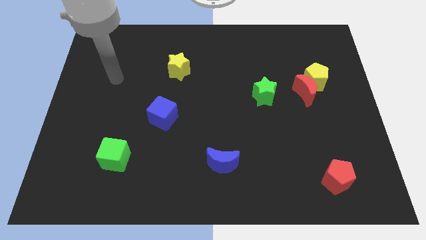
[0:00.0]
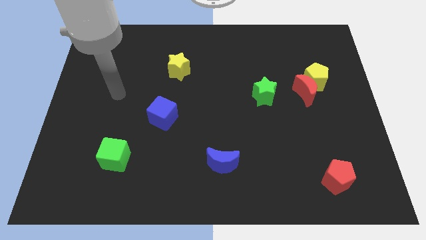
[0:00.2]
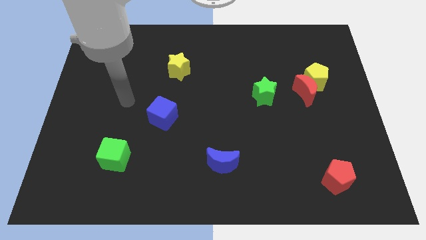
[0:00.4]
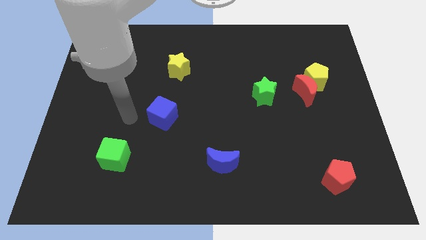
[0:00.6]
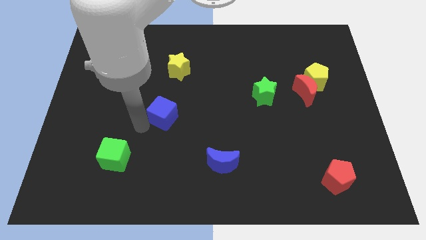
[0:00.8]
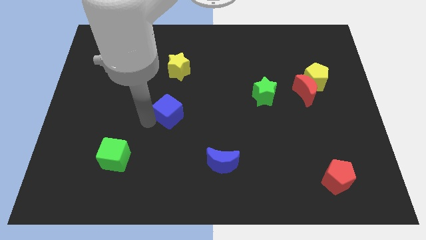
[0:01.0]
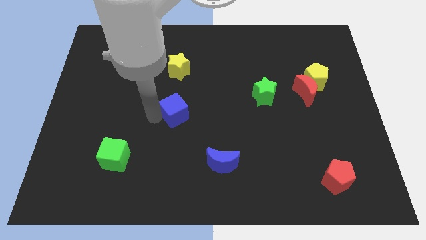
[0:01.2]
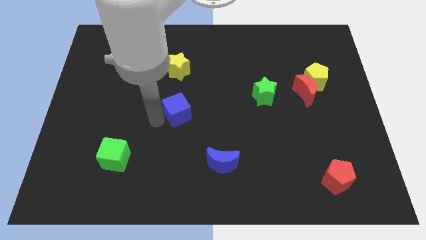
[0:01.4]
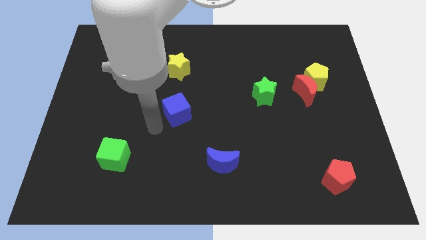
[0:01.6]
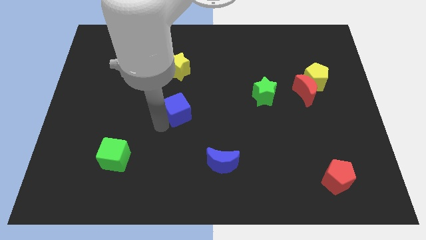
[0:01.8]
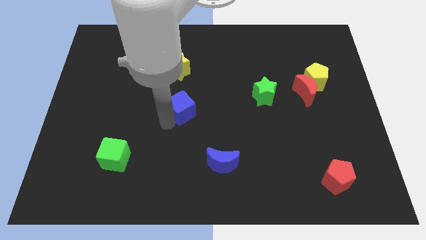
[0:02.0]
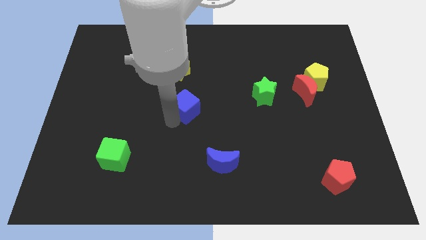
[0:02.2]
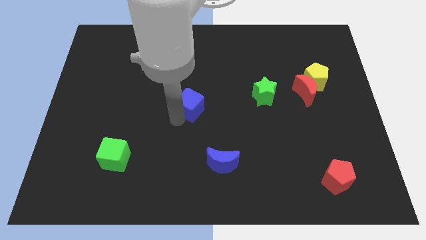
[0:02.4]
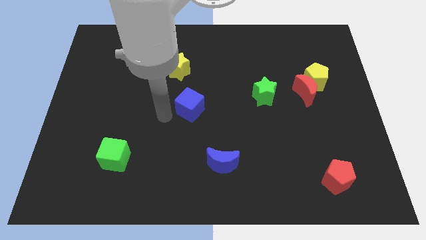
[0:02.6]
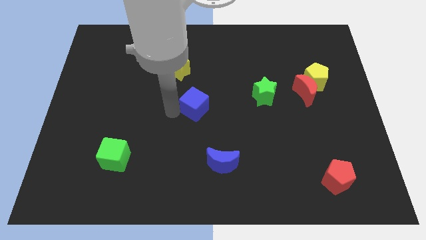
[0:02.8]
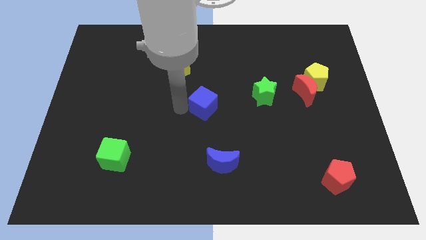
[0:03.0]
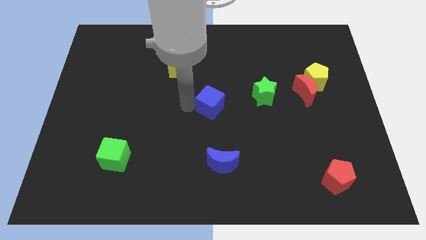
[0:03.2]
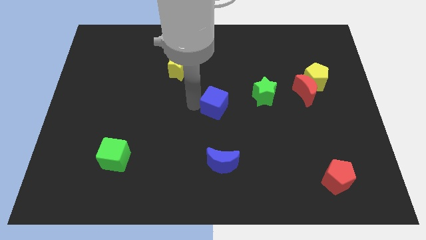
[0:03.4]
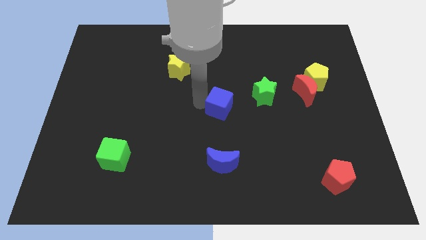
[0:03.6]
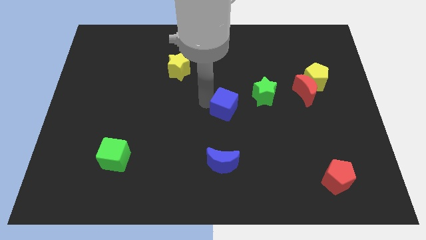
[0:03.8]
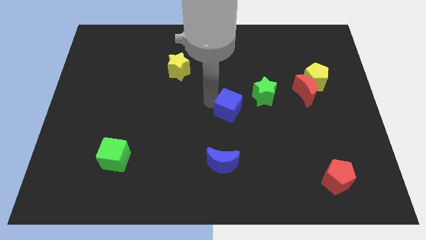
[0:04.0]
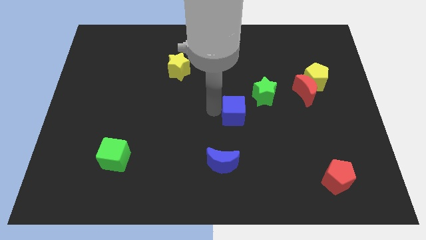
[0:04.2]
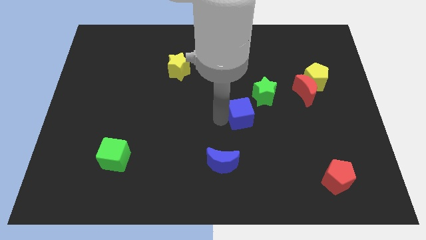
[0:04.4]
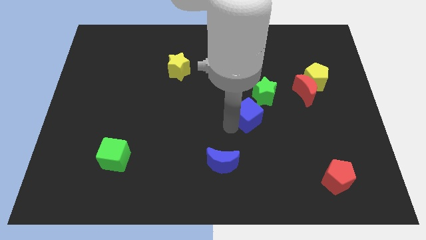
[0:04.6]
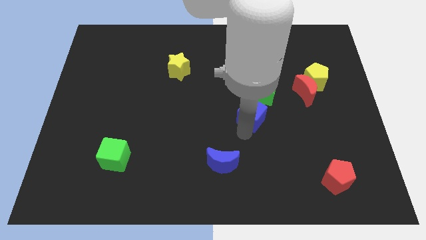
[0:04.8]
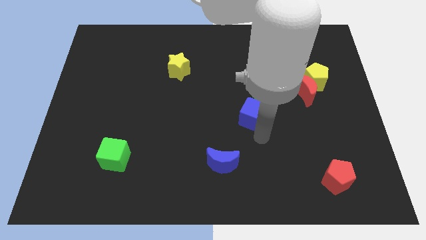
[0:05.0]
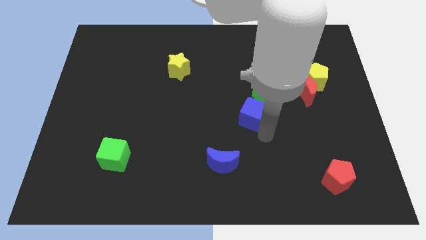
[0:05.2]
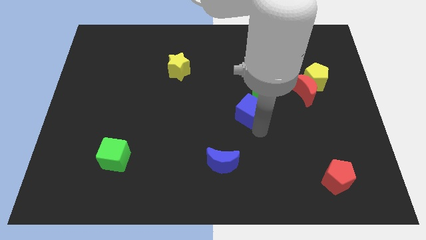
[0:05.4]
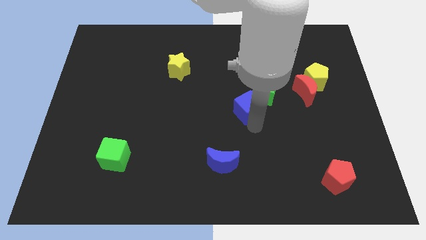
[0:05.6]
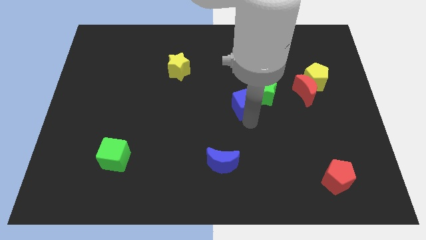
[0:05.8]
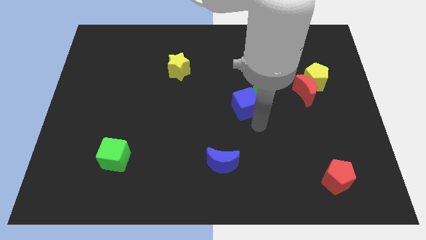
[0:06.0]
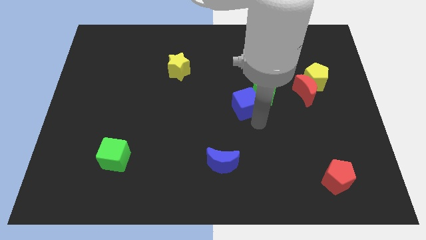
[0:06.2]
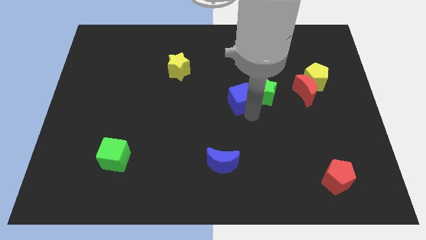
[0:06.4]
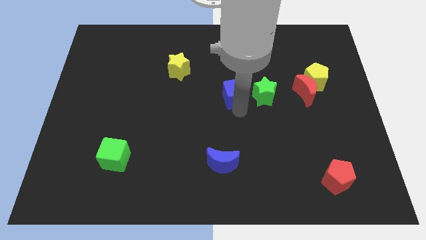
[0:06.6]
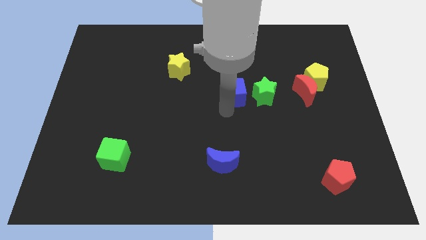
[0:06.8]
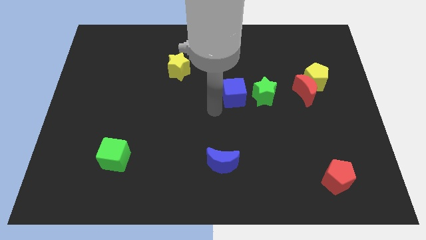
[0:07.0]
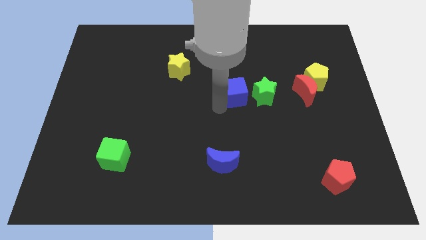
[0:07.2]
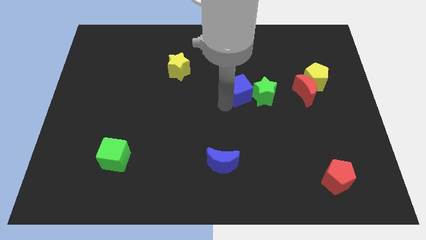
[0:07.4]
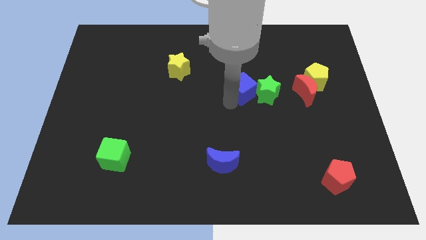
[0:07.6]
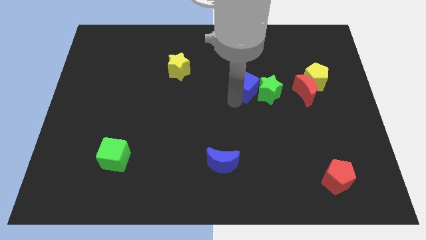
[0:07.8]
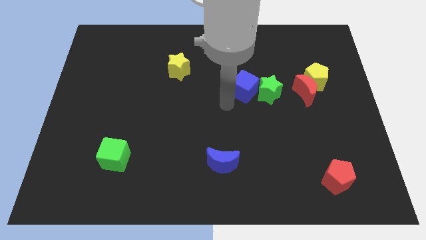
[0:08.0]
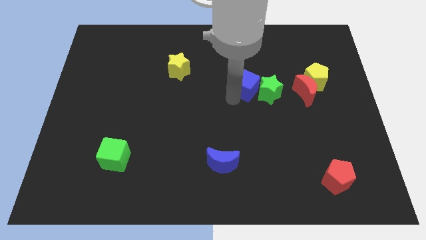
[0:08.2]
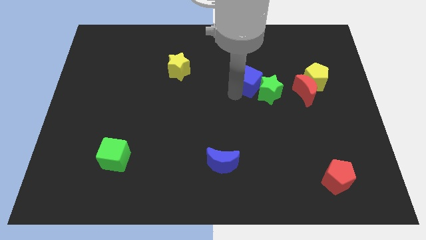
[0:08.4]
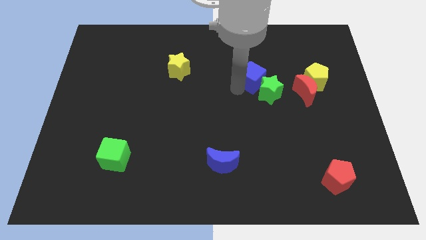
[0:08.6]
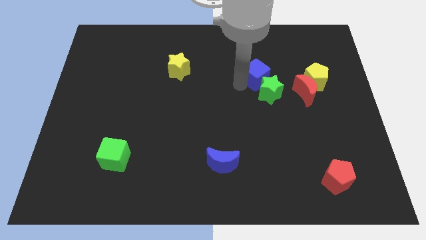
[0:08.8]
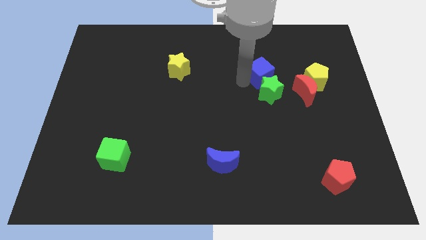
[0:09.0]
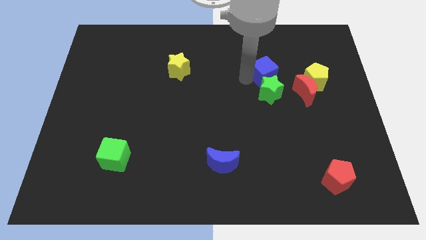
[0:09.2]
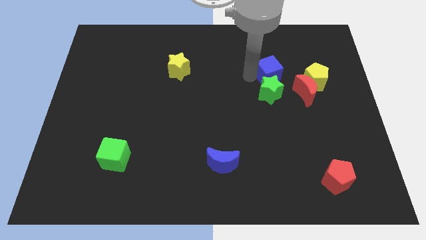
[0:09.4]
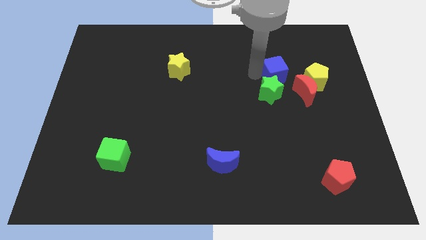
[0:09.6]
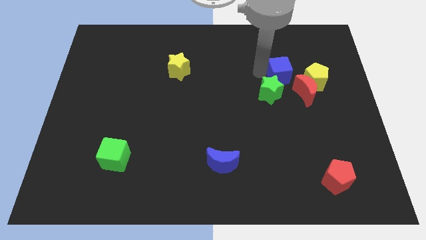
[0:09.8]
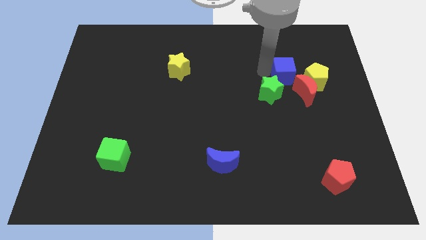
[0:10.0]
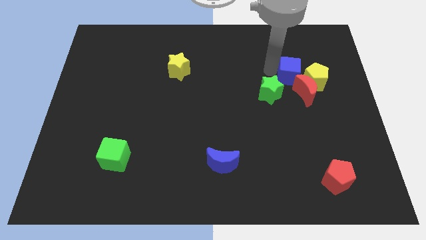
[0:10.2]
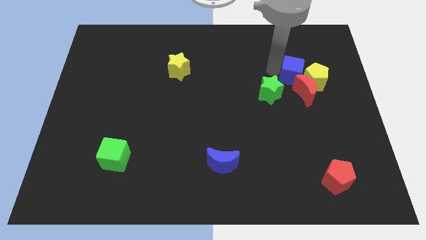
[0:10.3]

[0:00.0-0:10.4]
move the blue cube close to the yellow pentagon

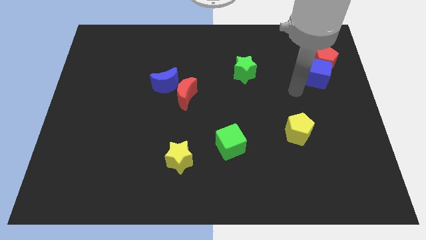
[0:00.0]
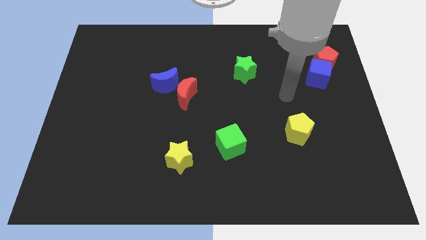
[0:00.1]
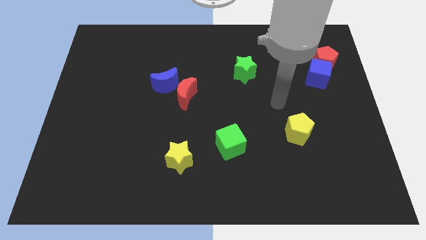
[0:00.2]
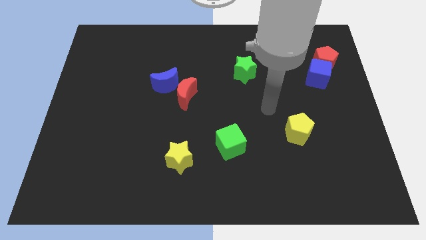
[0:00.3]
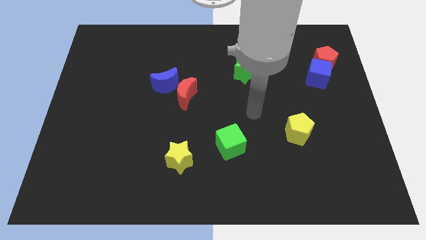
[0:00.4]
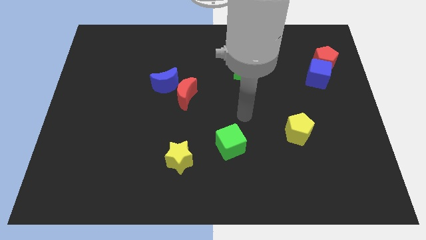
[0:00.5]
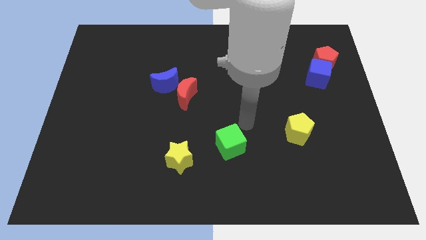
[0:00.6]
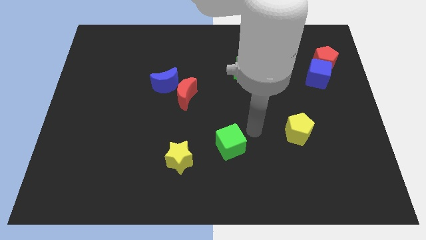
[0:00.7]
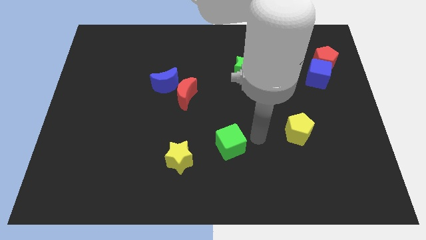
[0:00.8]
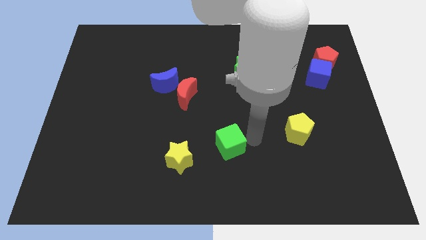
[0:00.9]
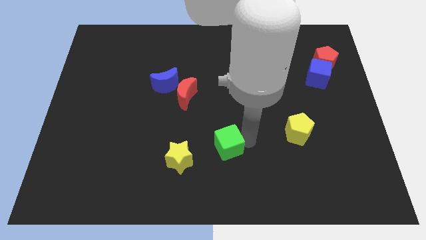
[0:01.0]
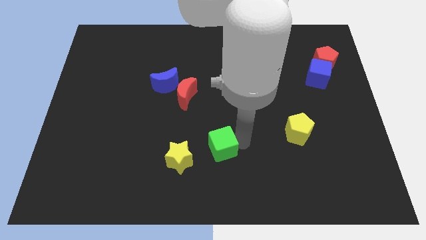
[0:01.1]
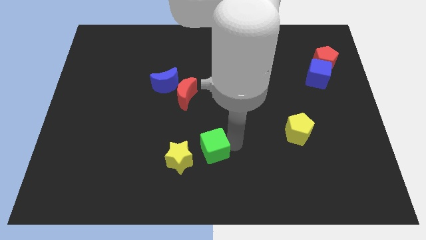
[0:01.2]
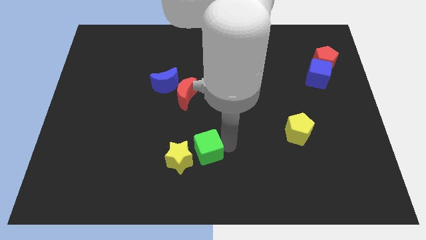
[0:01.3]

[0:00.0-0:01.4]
put the green cube to the yellow star

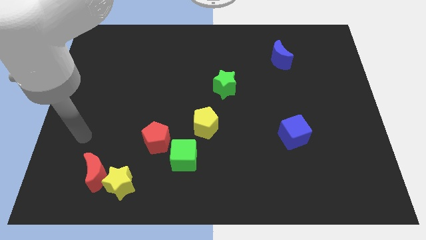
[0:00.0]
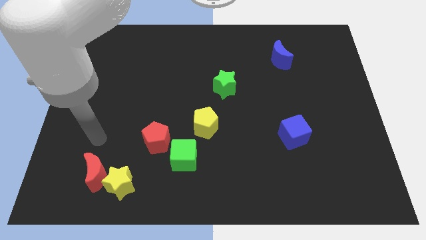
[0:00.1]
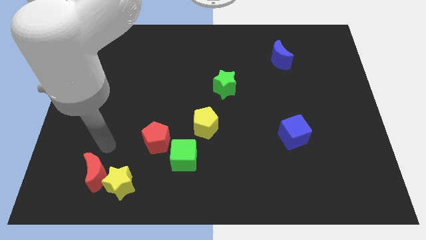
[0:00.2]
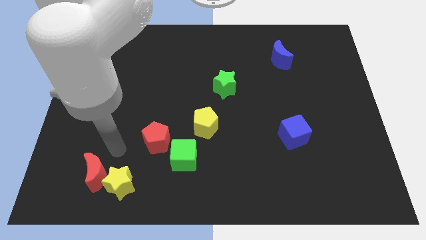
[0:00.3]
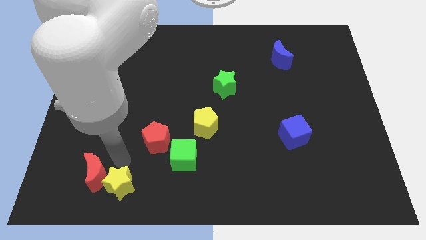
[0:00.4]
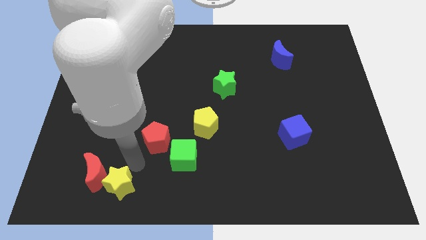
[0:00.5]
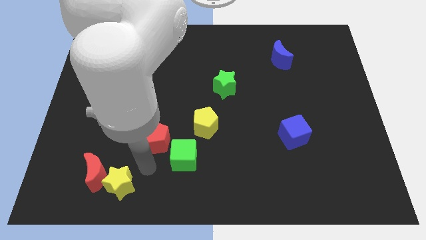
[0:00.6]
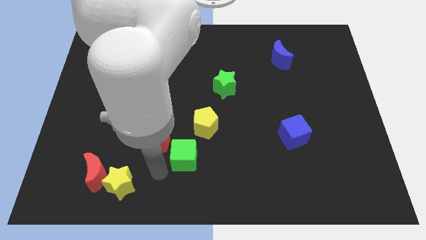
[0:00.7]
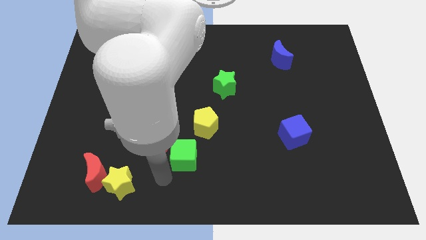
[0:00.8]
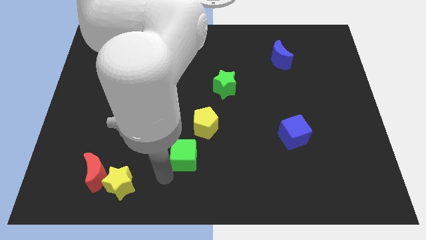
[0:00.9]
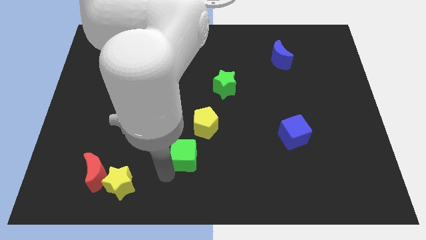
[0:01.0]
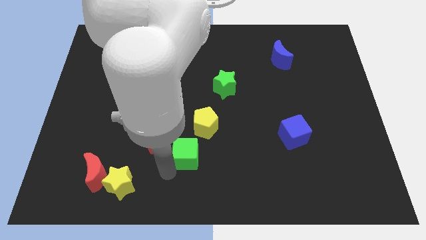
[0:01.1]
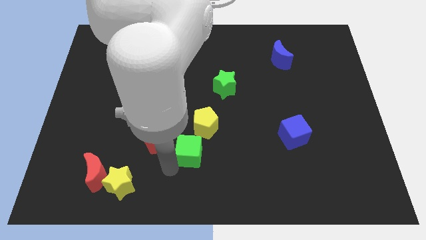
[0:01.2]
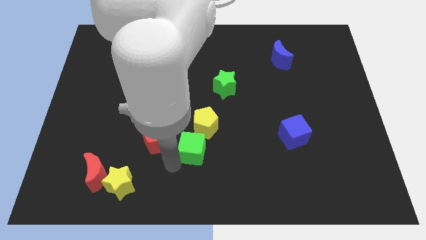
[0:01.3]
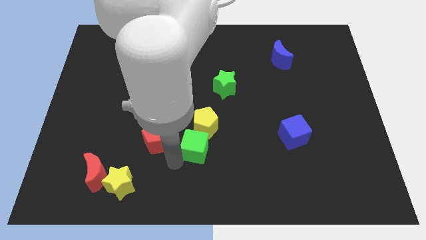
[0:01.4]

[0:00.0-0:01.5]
slide the green cube close to the yellow pentagon
